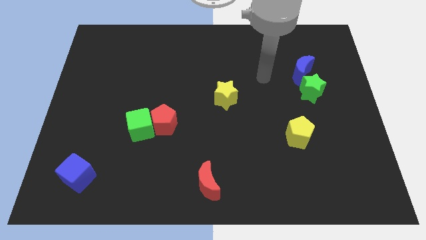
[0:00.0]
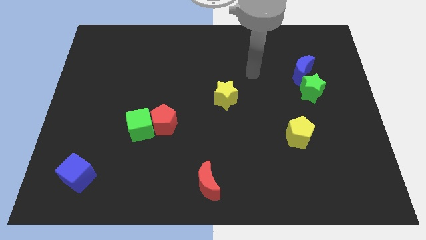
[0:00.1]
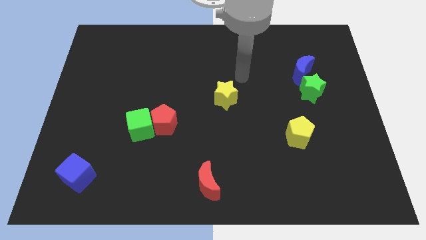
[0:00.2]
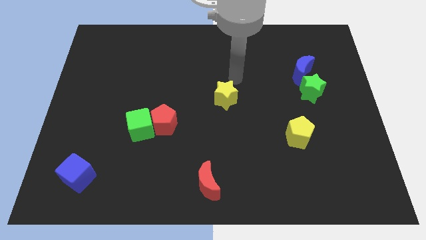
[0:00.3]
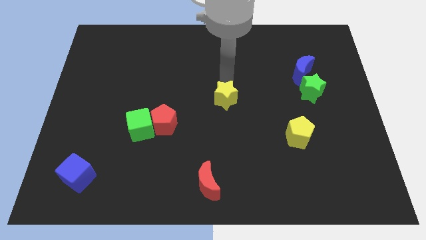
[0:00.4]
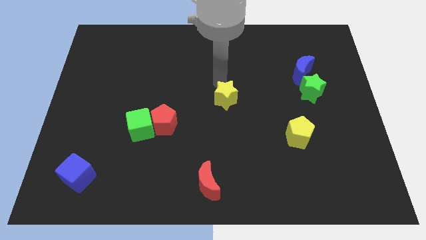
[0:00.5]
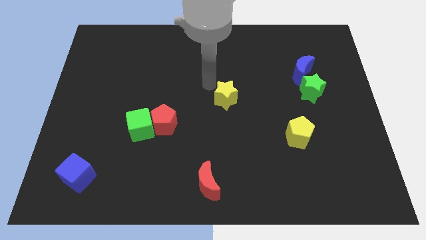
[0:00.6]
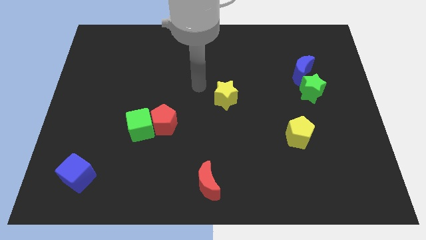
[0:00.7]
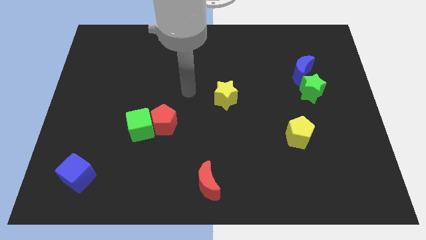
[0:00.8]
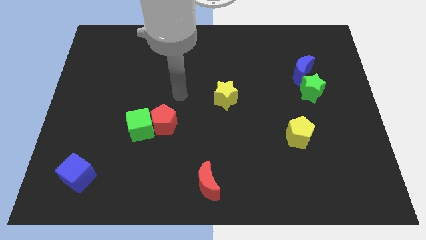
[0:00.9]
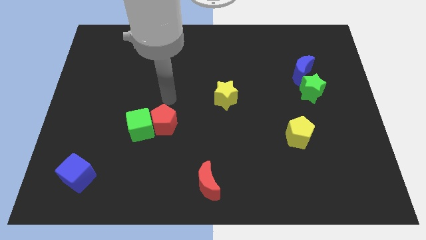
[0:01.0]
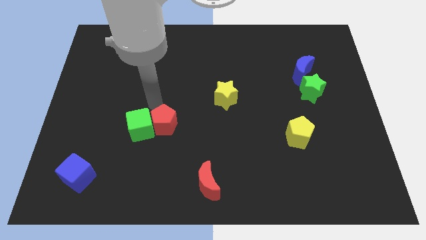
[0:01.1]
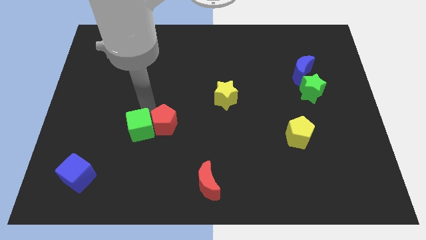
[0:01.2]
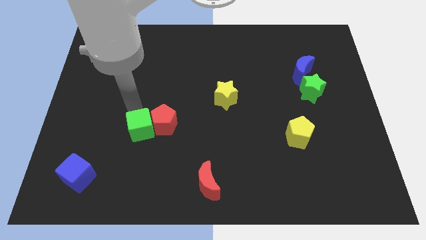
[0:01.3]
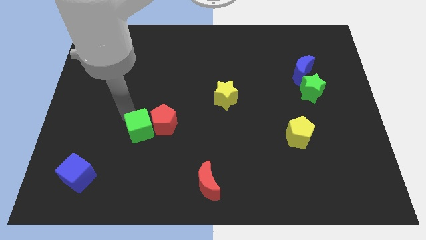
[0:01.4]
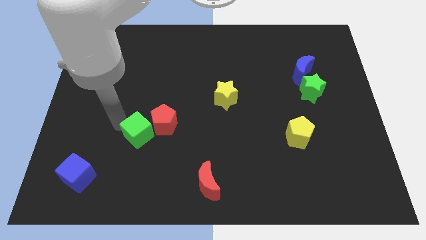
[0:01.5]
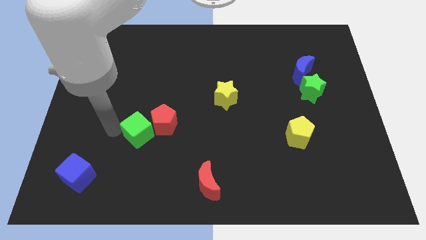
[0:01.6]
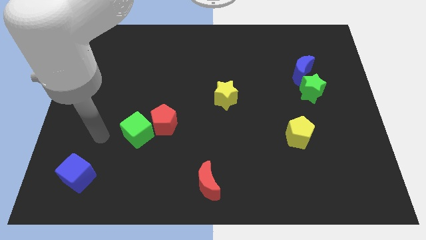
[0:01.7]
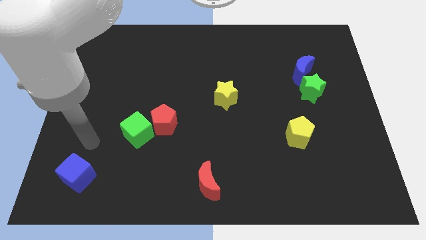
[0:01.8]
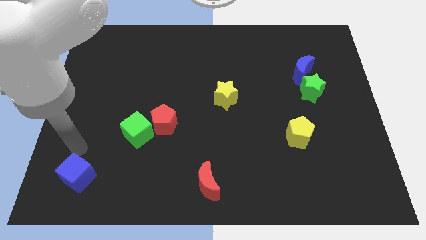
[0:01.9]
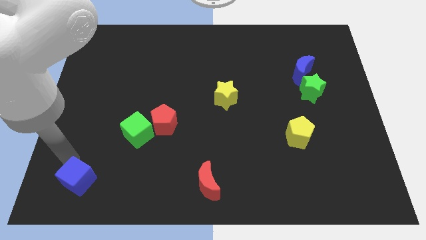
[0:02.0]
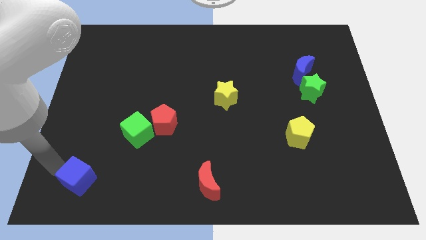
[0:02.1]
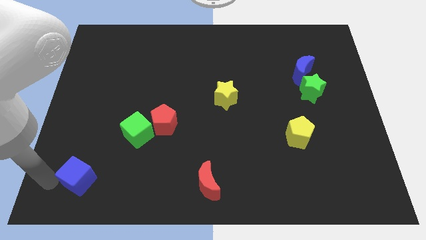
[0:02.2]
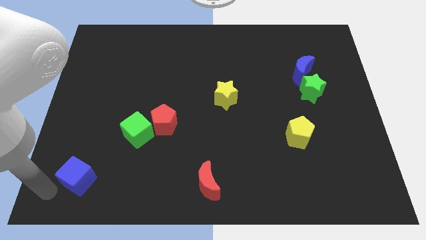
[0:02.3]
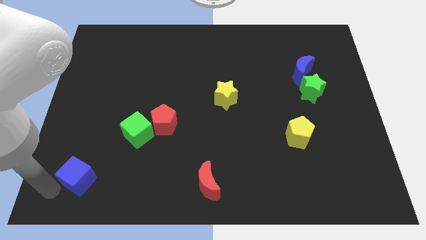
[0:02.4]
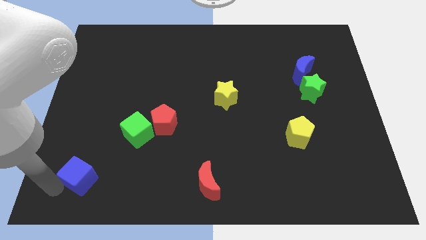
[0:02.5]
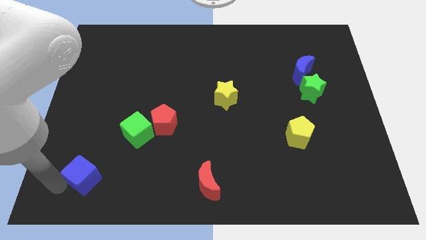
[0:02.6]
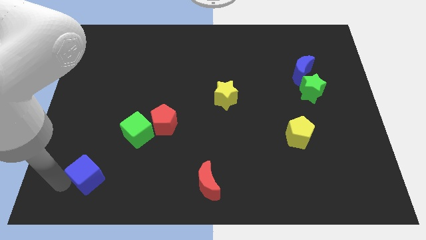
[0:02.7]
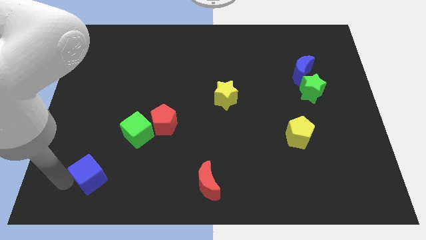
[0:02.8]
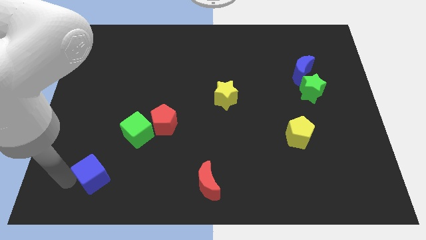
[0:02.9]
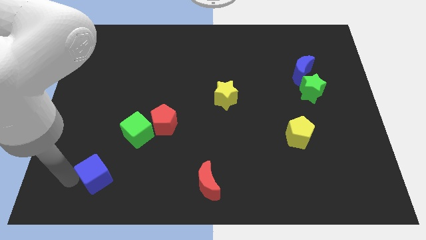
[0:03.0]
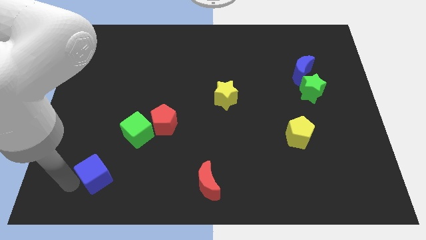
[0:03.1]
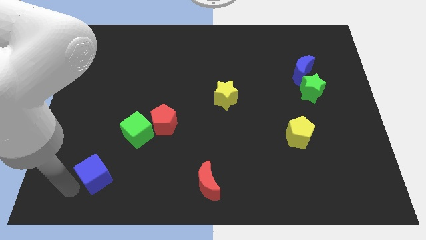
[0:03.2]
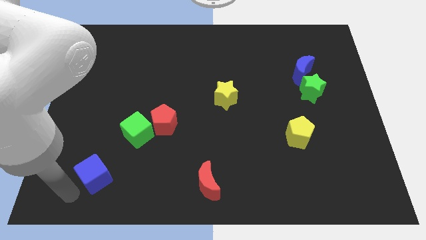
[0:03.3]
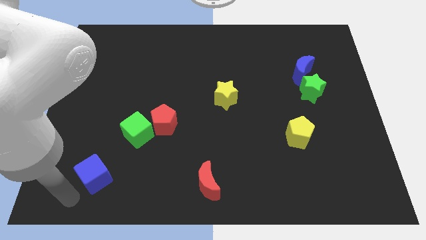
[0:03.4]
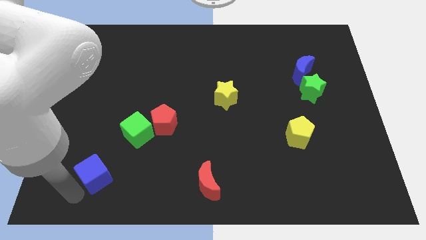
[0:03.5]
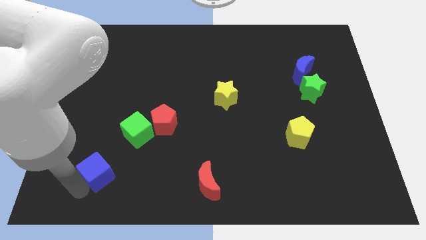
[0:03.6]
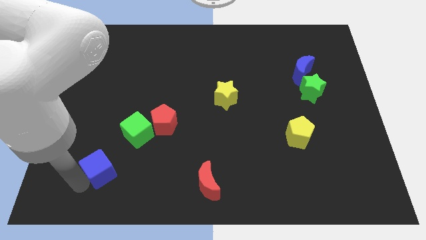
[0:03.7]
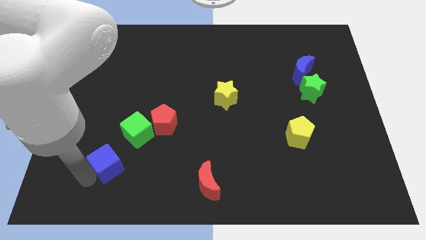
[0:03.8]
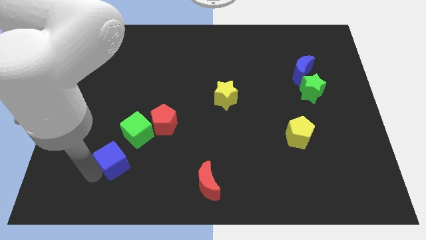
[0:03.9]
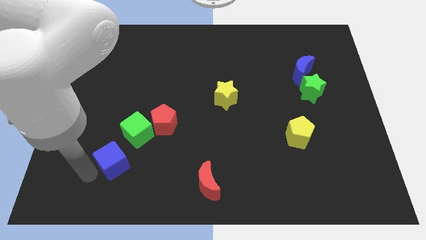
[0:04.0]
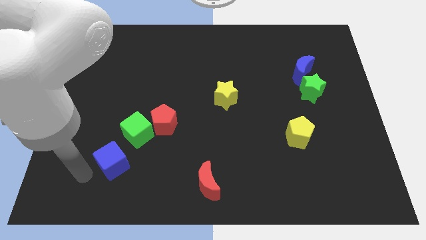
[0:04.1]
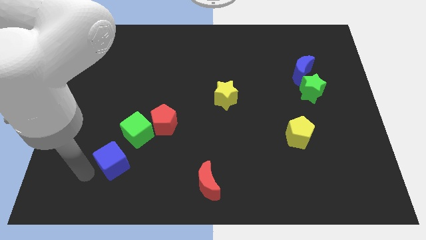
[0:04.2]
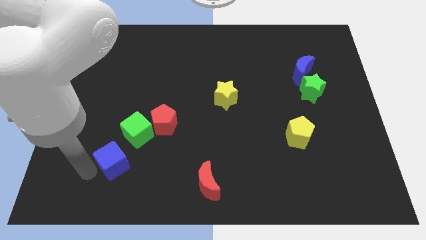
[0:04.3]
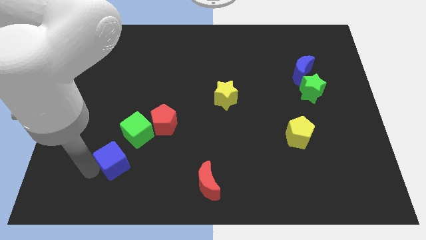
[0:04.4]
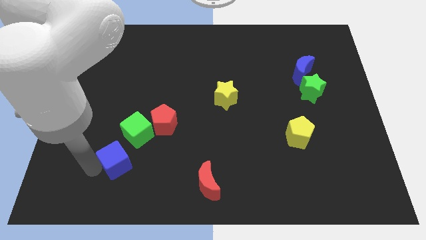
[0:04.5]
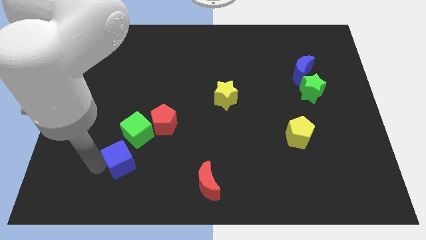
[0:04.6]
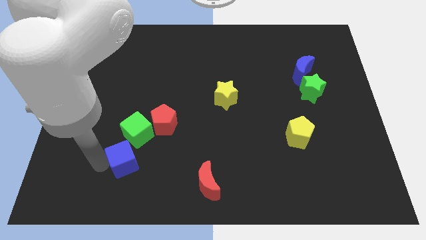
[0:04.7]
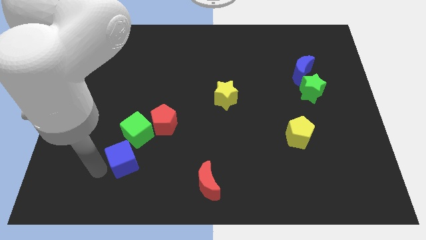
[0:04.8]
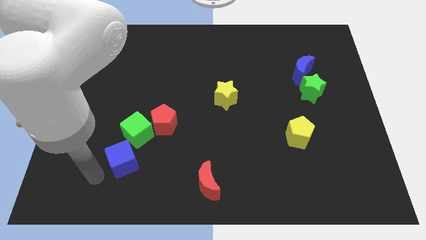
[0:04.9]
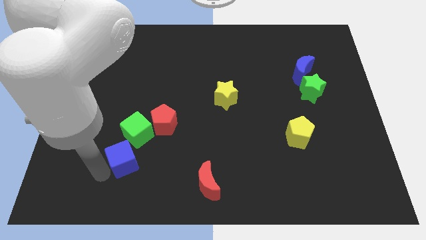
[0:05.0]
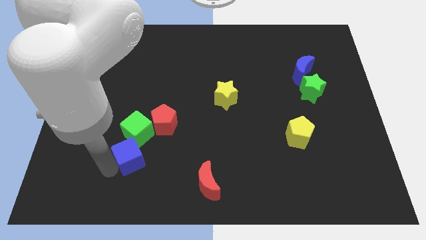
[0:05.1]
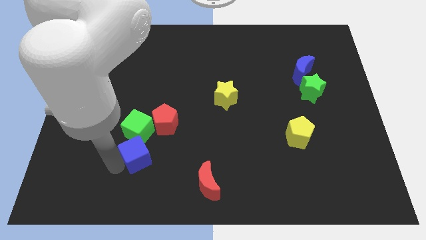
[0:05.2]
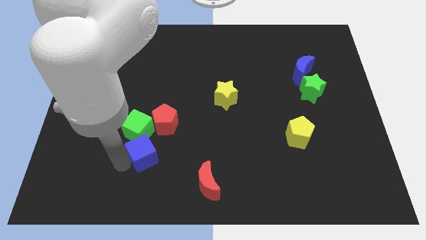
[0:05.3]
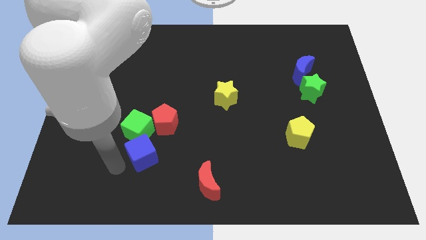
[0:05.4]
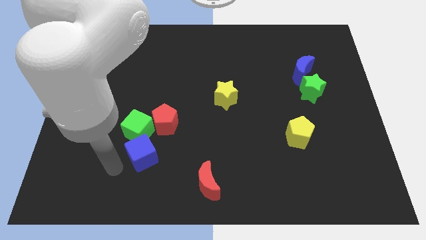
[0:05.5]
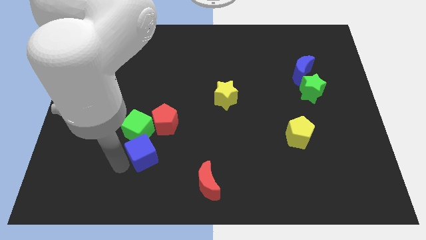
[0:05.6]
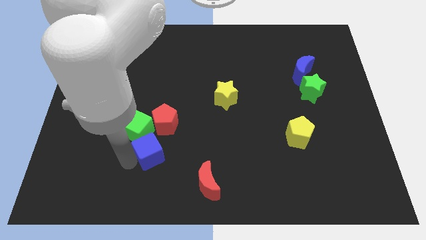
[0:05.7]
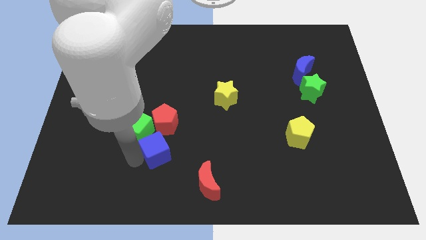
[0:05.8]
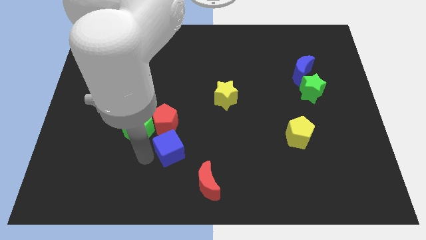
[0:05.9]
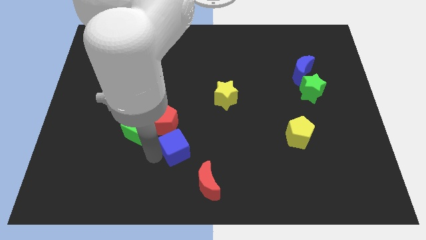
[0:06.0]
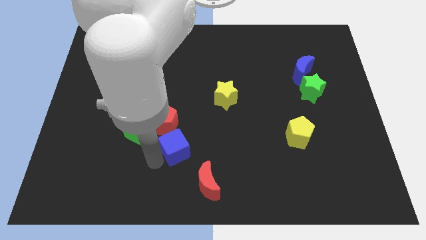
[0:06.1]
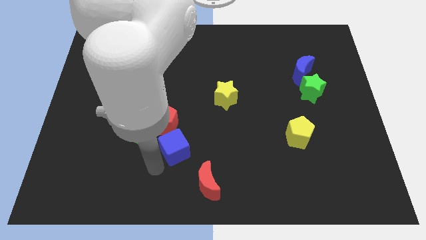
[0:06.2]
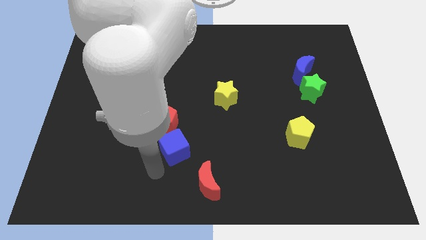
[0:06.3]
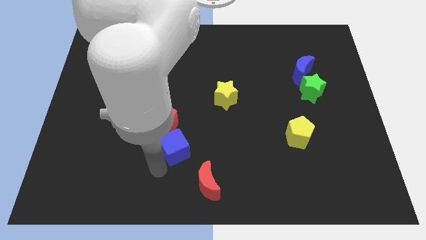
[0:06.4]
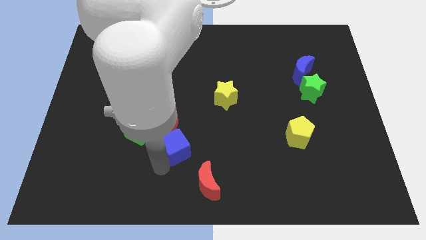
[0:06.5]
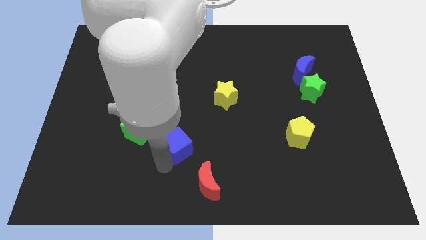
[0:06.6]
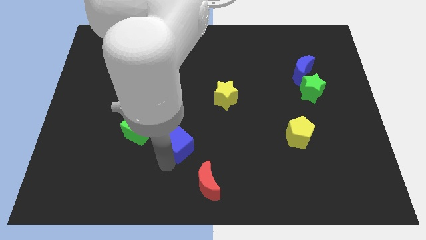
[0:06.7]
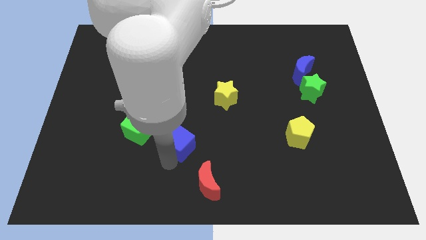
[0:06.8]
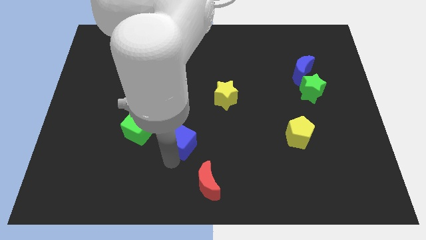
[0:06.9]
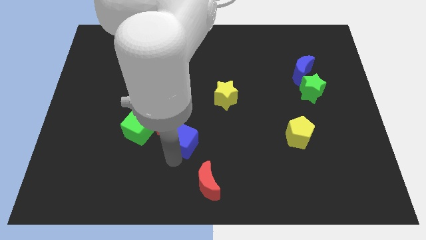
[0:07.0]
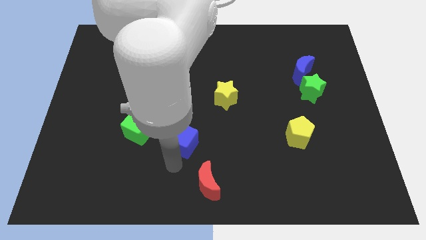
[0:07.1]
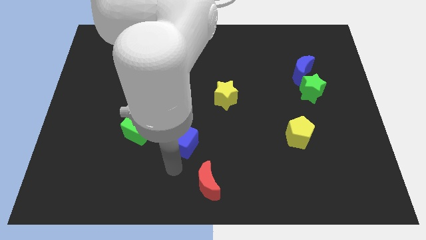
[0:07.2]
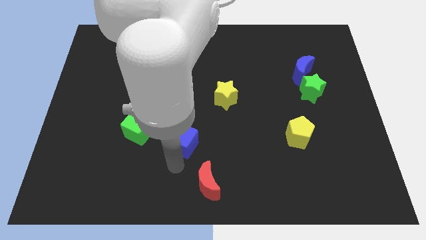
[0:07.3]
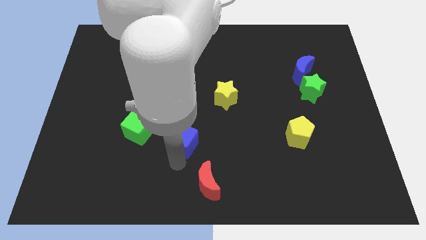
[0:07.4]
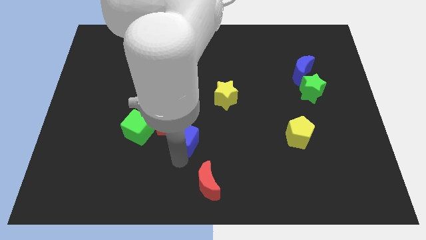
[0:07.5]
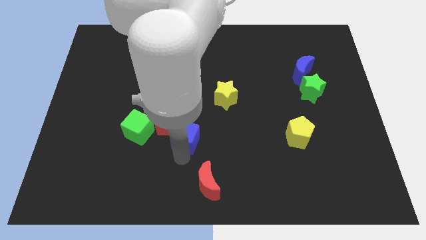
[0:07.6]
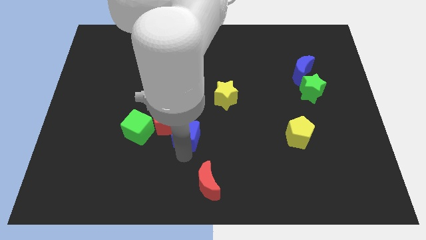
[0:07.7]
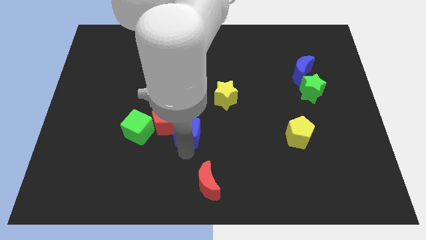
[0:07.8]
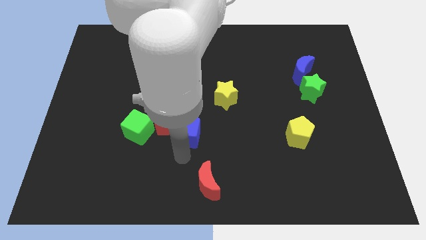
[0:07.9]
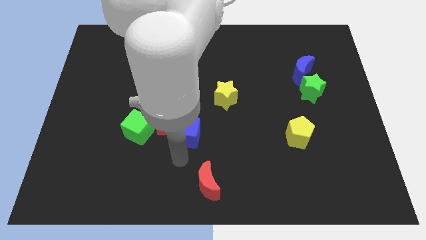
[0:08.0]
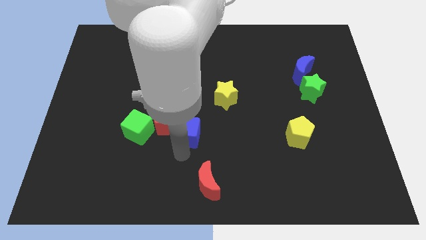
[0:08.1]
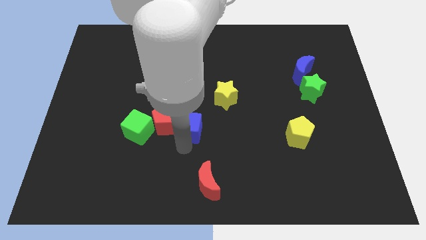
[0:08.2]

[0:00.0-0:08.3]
move the blue cube up and right
